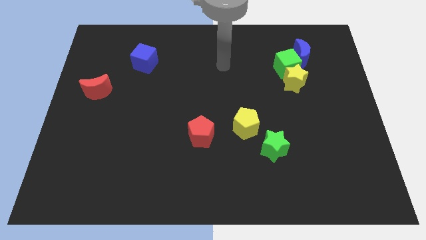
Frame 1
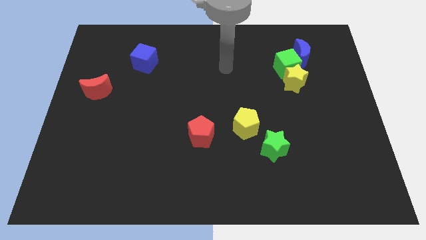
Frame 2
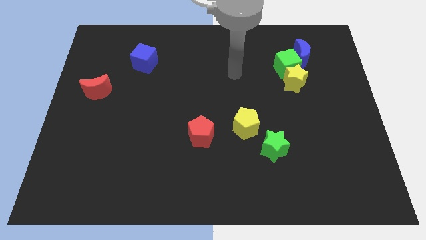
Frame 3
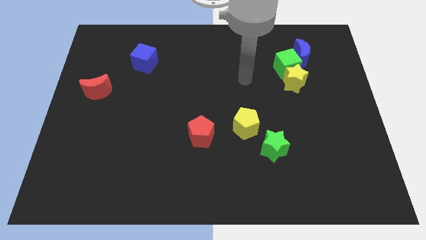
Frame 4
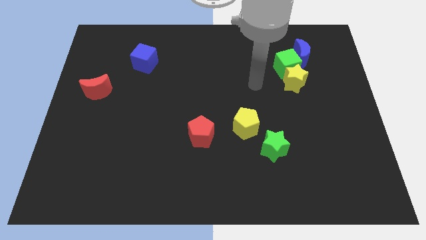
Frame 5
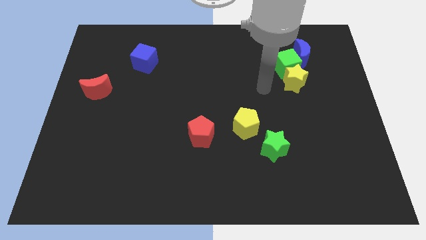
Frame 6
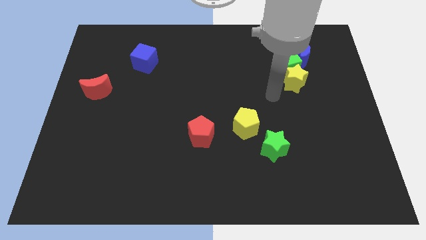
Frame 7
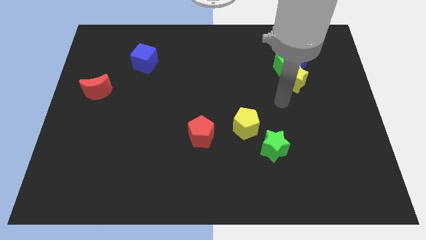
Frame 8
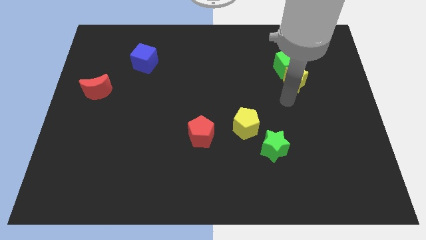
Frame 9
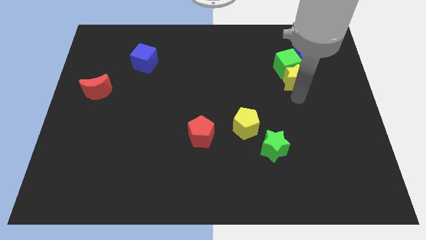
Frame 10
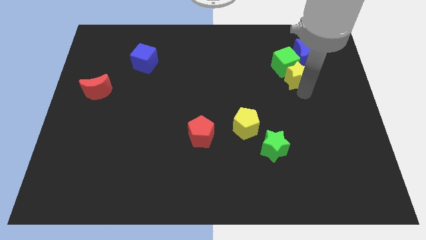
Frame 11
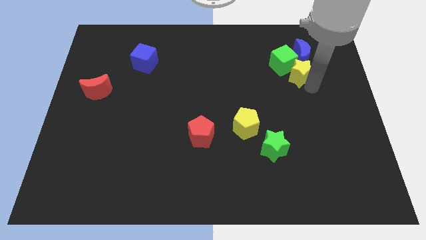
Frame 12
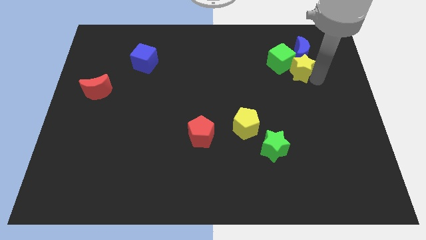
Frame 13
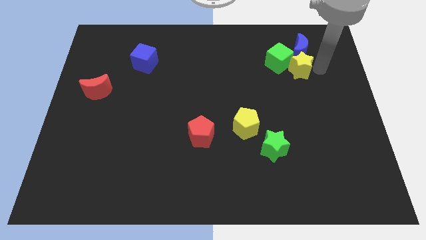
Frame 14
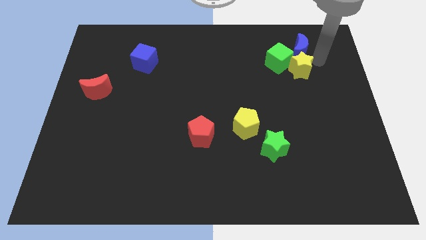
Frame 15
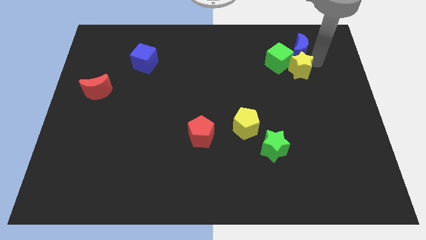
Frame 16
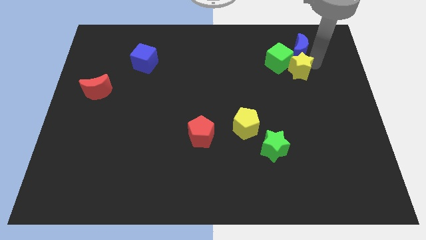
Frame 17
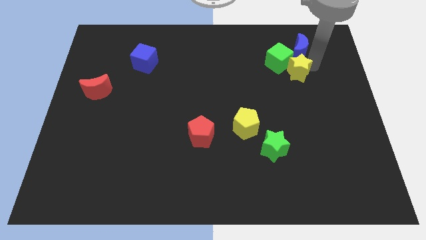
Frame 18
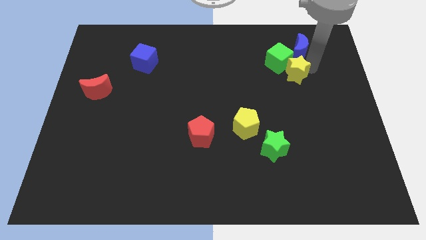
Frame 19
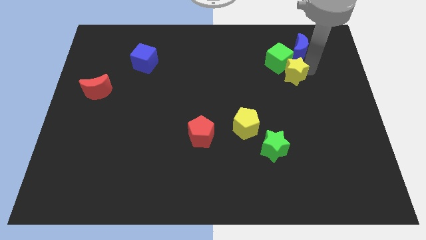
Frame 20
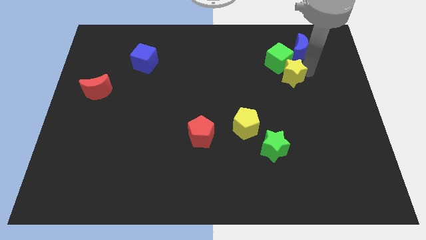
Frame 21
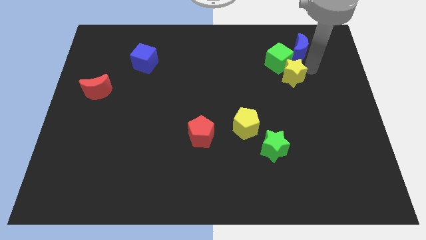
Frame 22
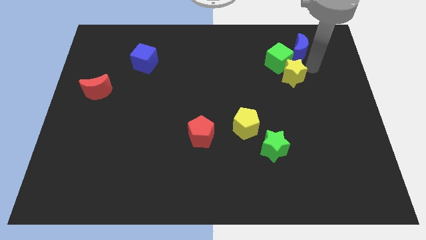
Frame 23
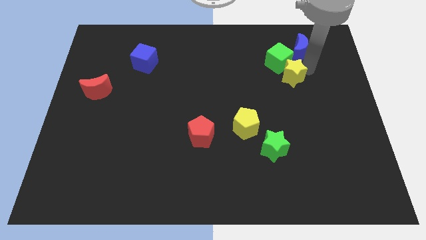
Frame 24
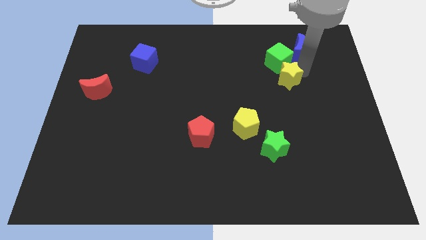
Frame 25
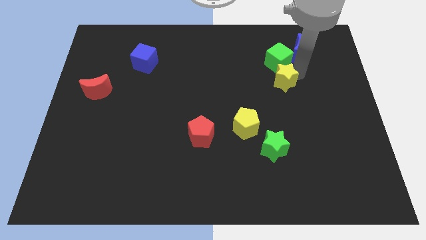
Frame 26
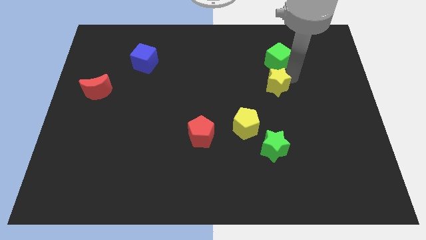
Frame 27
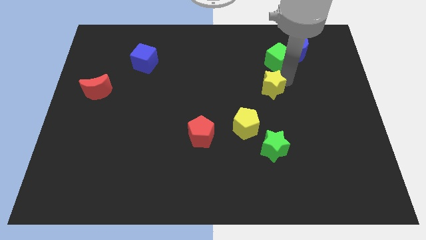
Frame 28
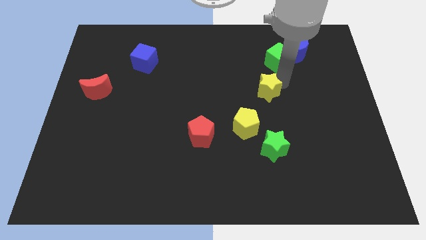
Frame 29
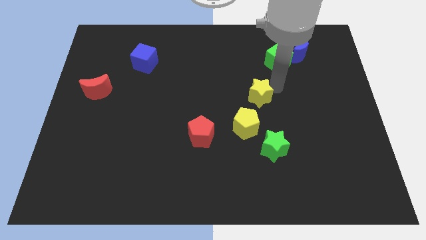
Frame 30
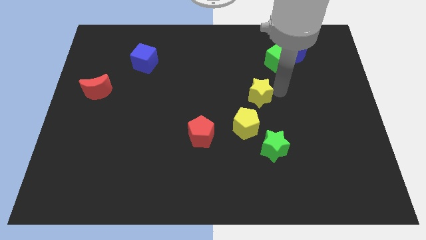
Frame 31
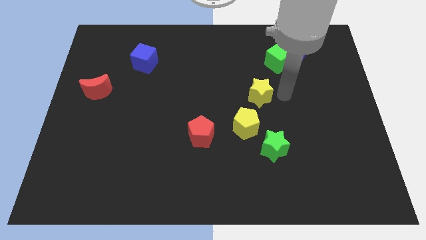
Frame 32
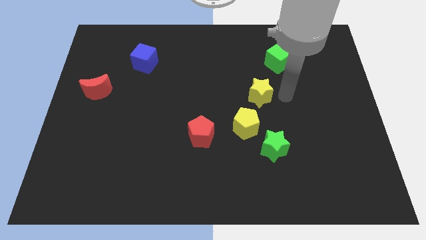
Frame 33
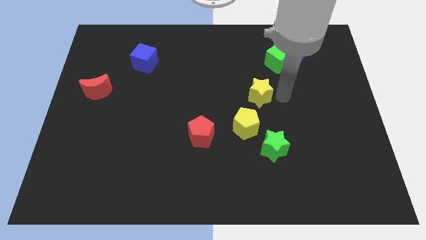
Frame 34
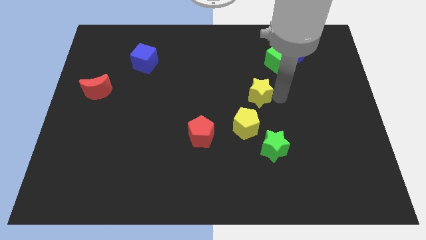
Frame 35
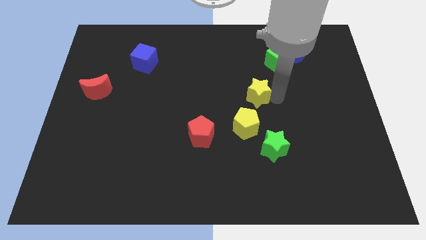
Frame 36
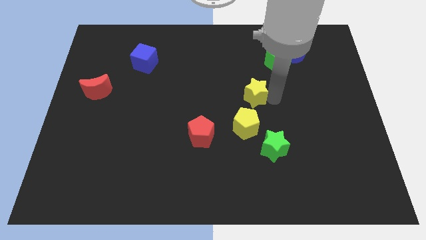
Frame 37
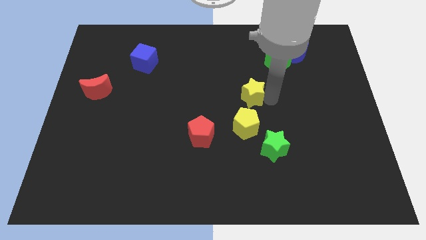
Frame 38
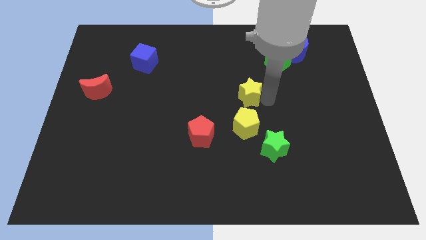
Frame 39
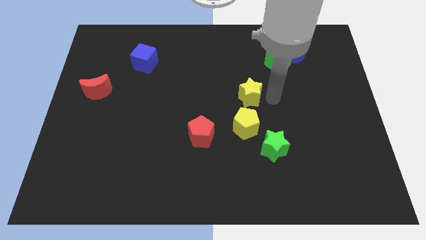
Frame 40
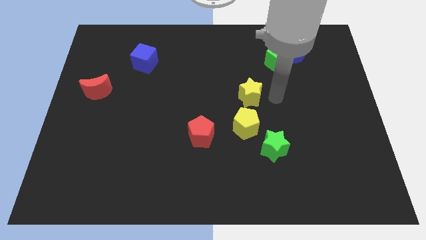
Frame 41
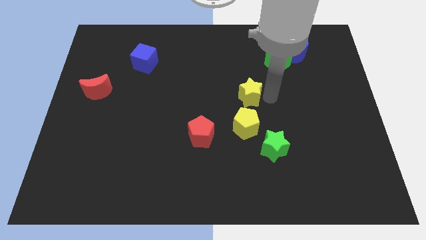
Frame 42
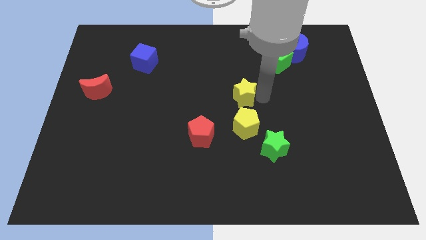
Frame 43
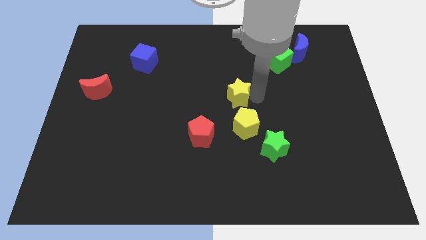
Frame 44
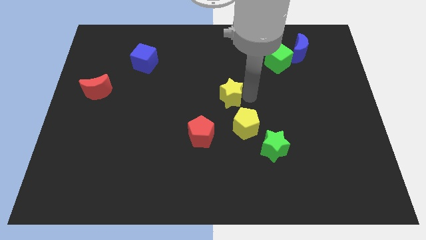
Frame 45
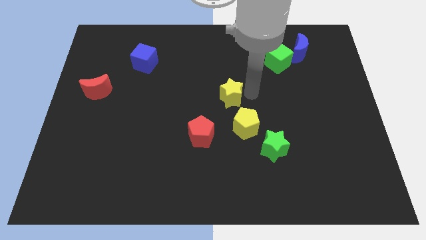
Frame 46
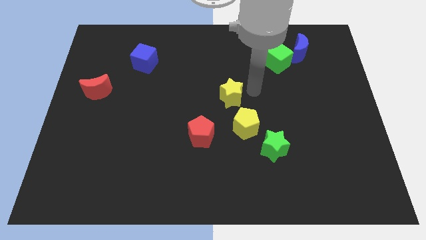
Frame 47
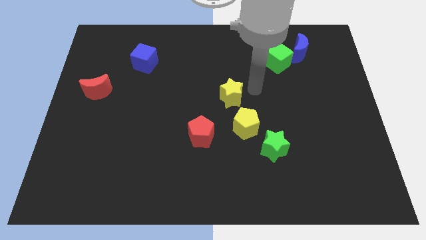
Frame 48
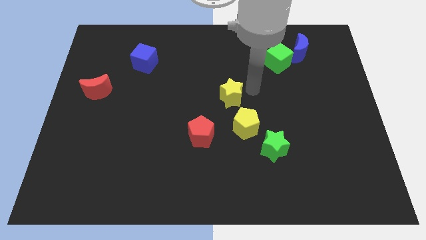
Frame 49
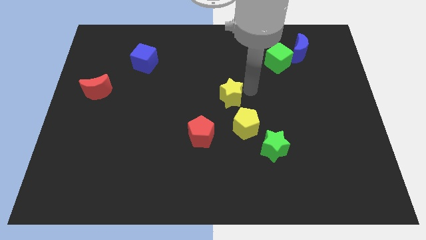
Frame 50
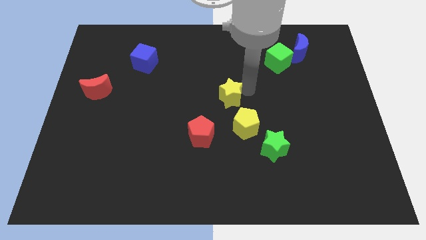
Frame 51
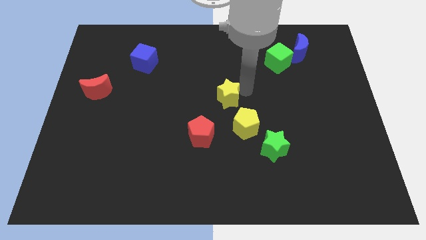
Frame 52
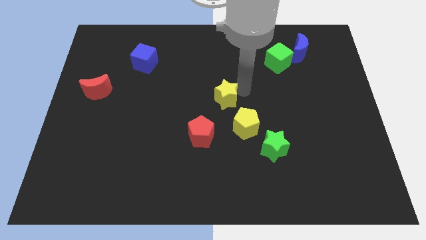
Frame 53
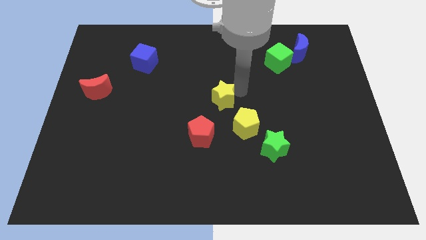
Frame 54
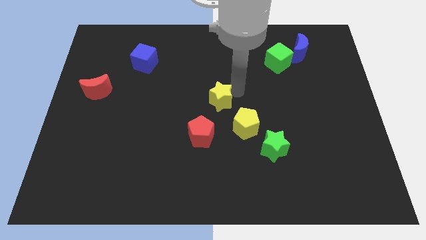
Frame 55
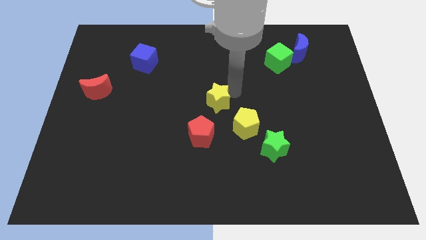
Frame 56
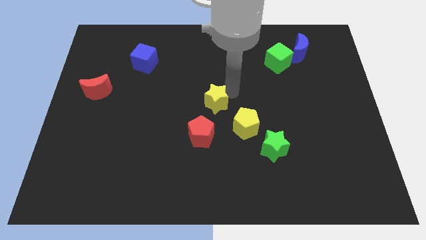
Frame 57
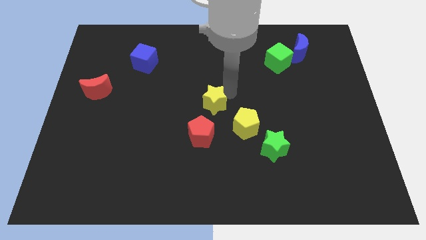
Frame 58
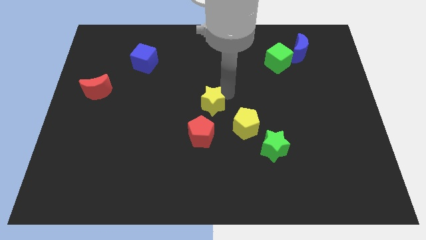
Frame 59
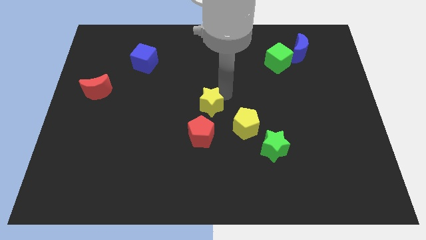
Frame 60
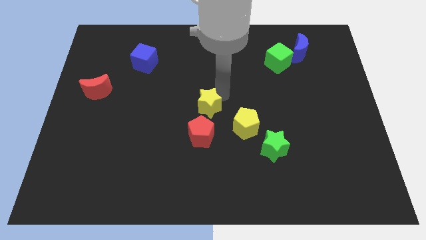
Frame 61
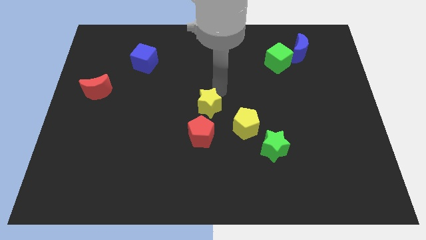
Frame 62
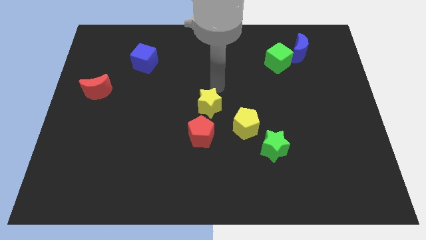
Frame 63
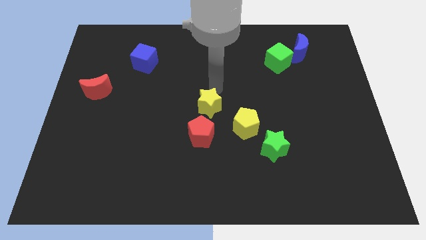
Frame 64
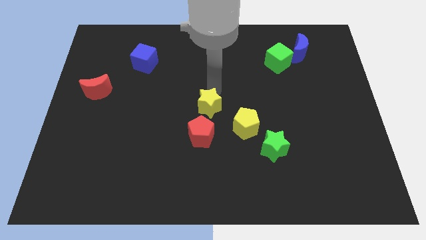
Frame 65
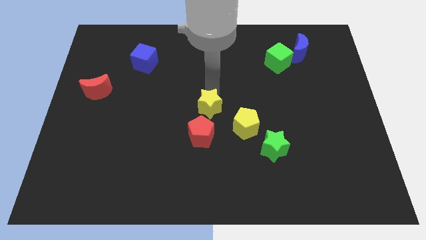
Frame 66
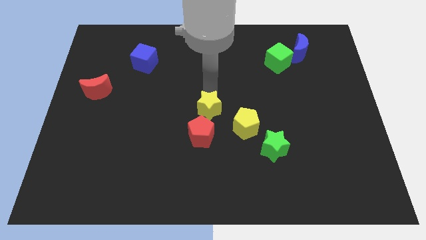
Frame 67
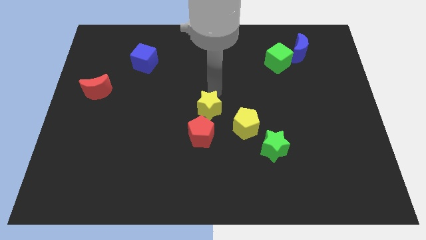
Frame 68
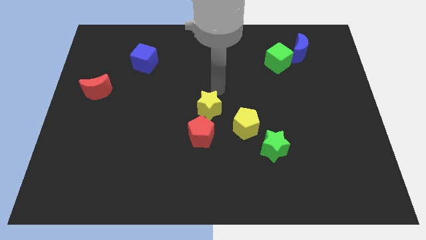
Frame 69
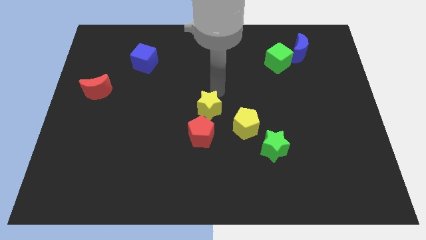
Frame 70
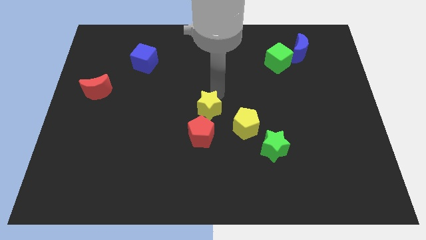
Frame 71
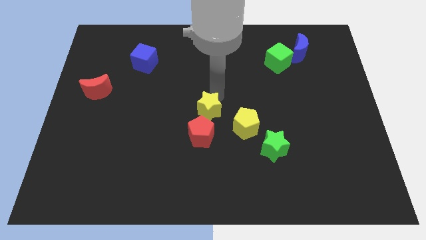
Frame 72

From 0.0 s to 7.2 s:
slide the yellow star to the left side of the yellow pentagon
